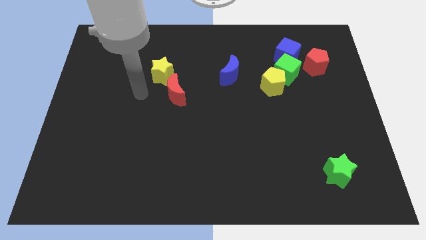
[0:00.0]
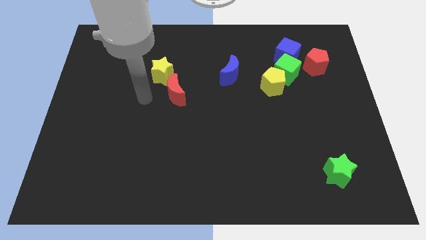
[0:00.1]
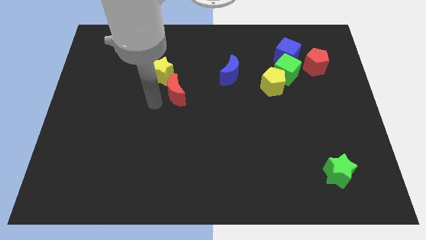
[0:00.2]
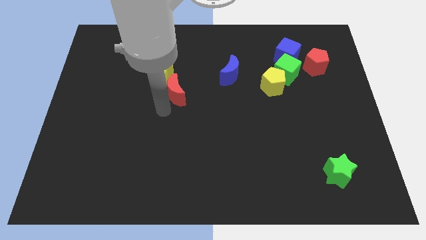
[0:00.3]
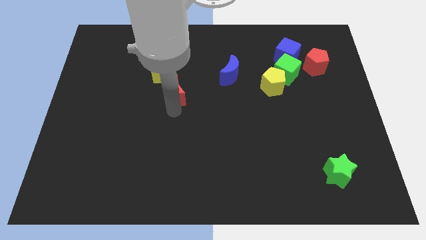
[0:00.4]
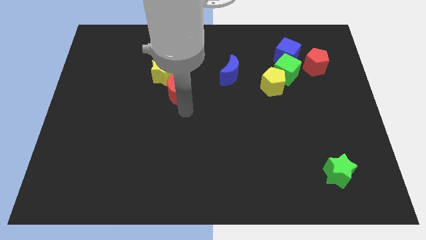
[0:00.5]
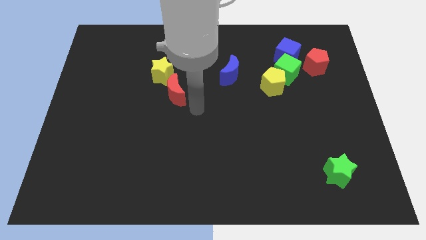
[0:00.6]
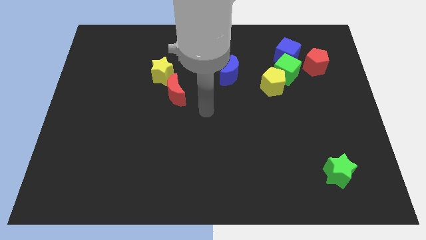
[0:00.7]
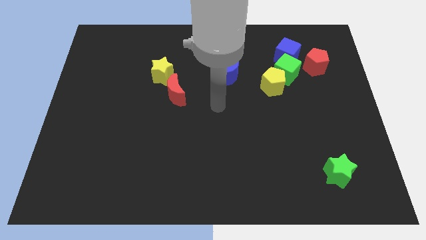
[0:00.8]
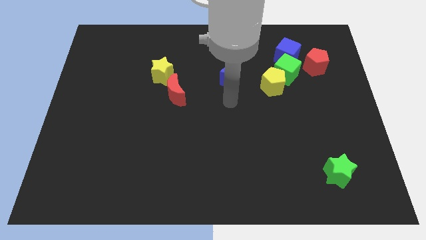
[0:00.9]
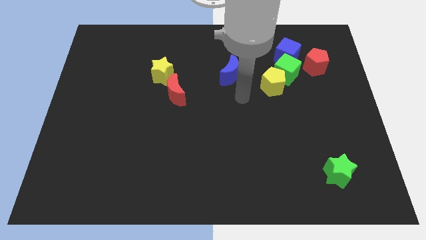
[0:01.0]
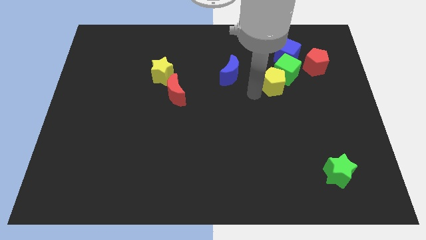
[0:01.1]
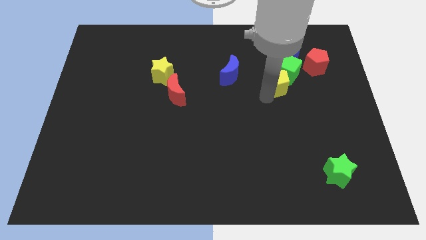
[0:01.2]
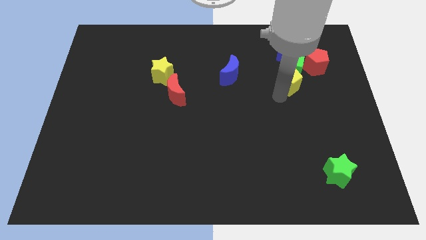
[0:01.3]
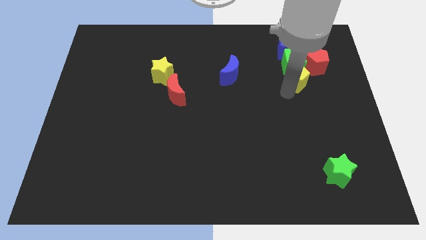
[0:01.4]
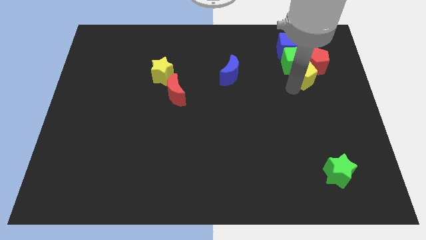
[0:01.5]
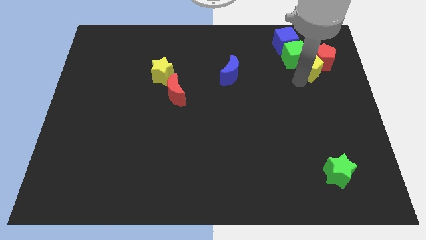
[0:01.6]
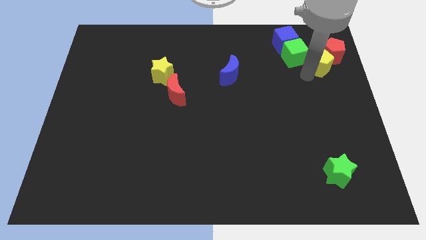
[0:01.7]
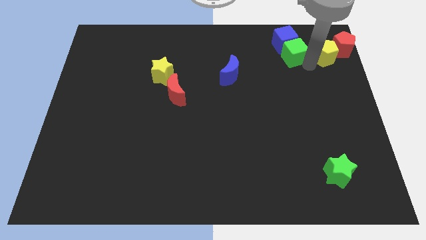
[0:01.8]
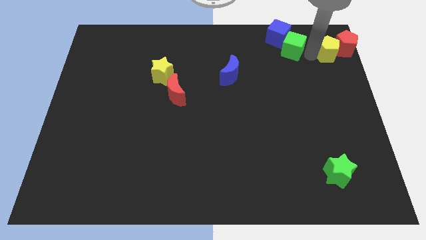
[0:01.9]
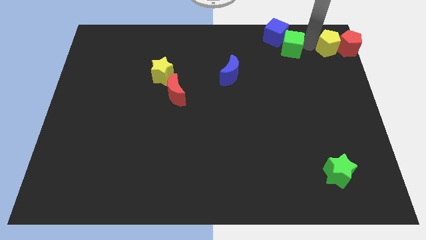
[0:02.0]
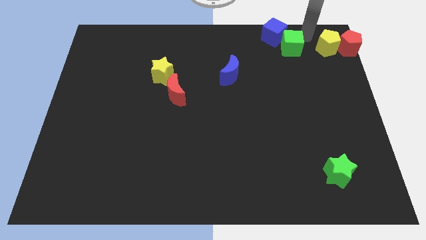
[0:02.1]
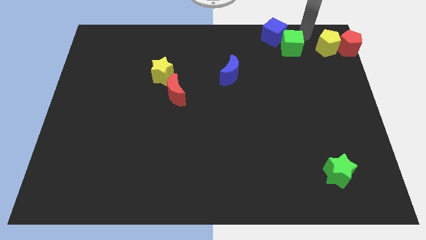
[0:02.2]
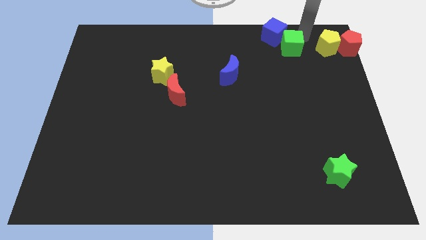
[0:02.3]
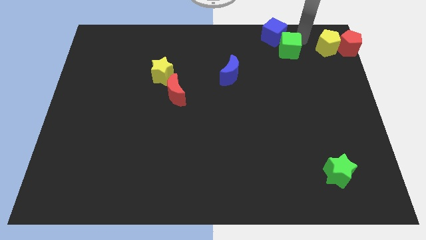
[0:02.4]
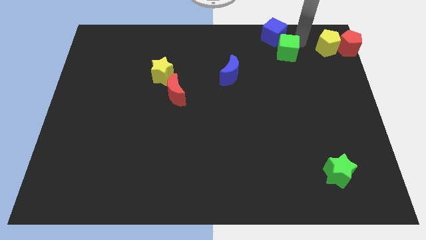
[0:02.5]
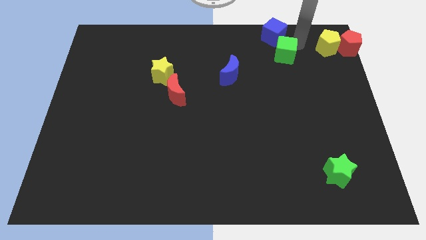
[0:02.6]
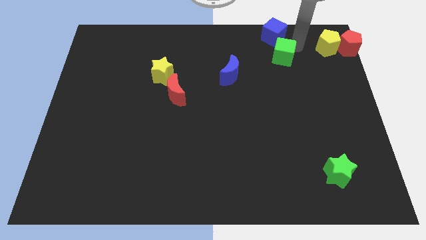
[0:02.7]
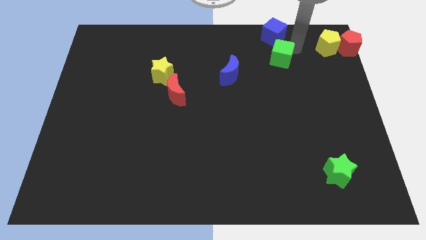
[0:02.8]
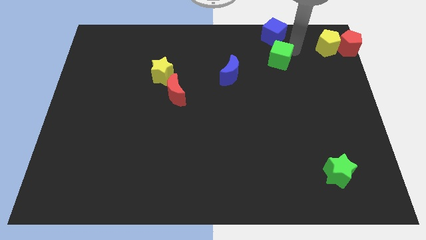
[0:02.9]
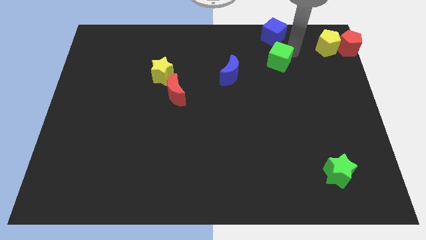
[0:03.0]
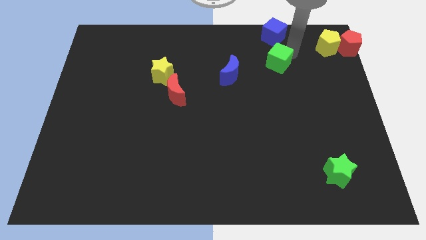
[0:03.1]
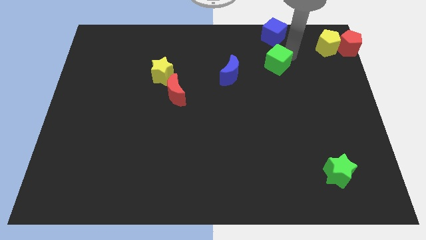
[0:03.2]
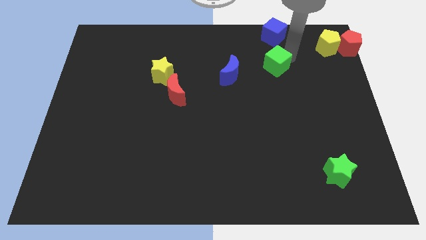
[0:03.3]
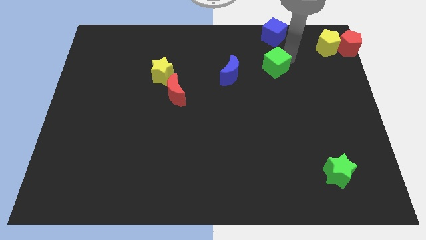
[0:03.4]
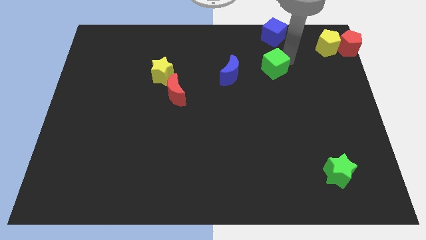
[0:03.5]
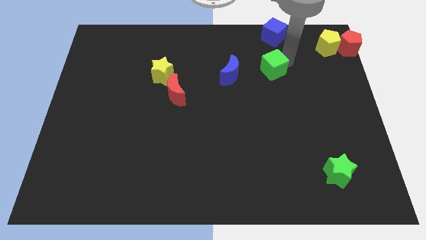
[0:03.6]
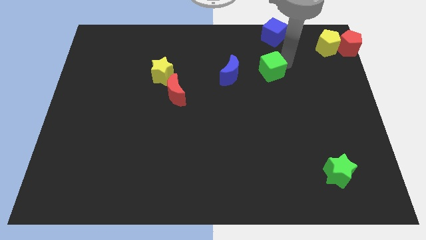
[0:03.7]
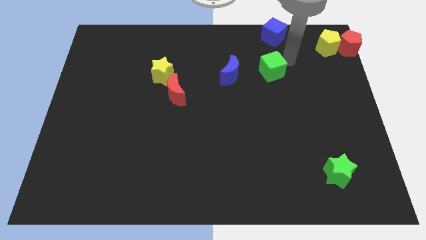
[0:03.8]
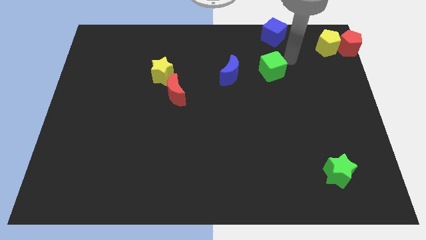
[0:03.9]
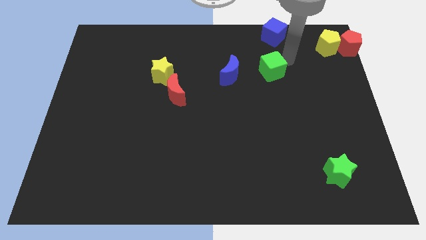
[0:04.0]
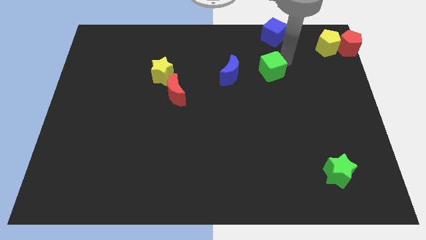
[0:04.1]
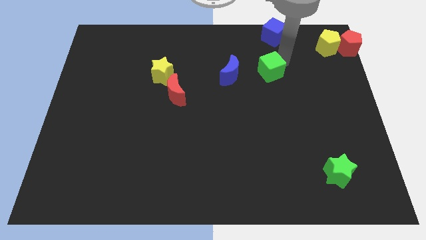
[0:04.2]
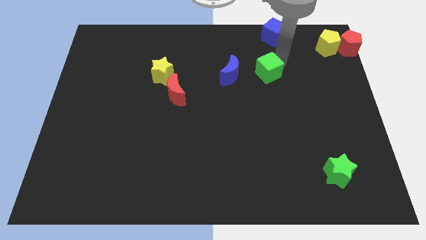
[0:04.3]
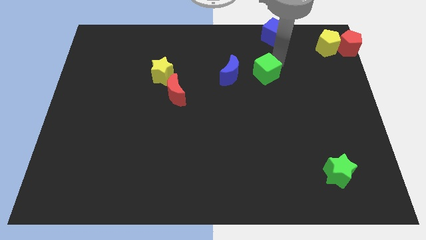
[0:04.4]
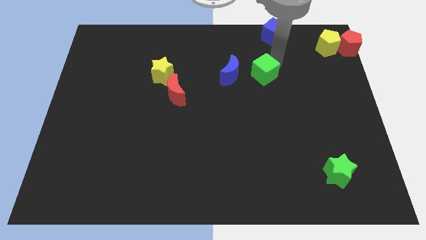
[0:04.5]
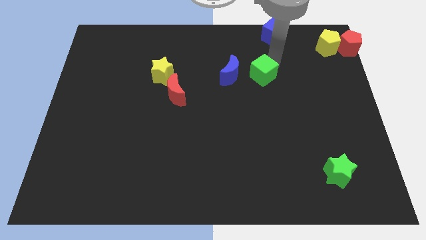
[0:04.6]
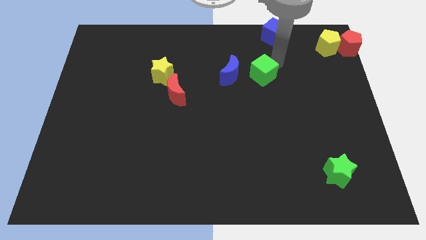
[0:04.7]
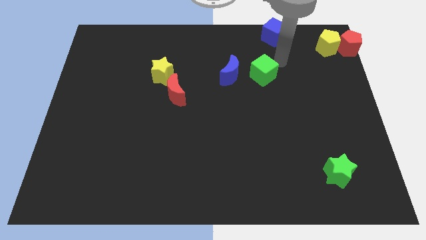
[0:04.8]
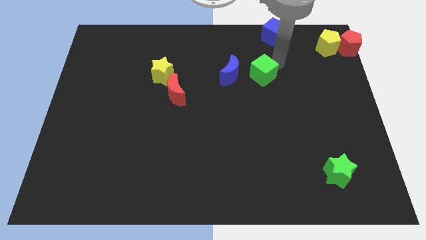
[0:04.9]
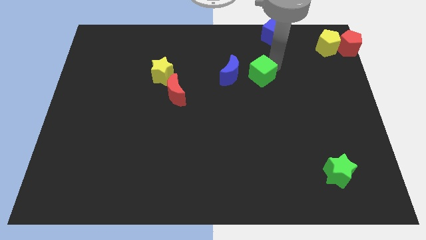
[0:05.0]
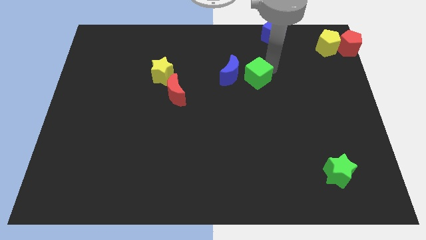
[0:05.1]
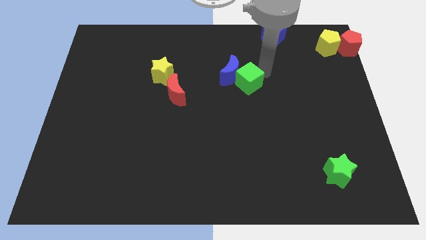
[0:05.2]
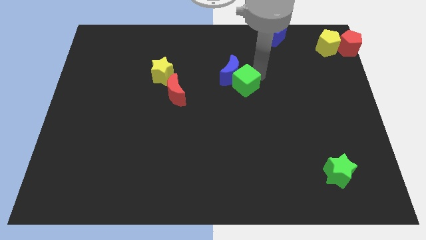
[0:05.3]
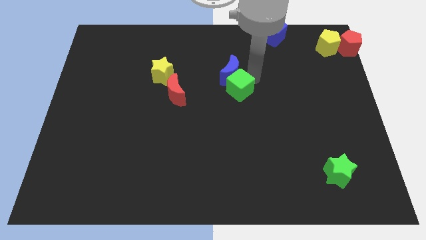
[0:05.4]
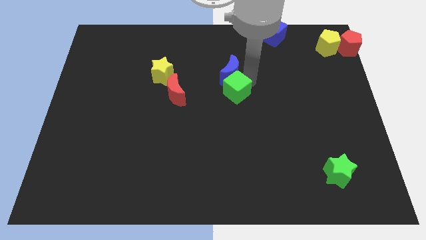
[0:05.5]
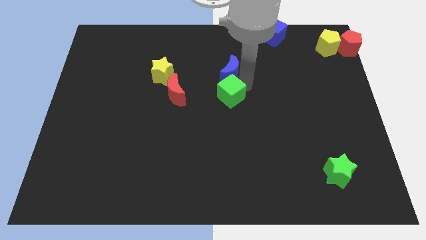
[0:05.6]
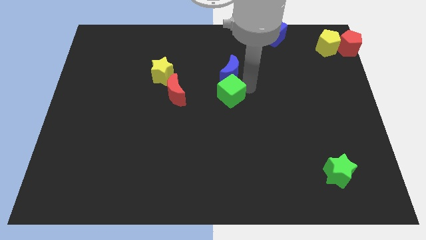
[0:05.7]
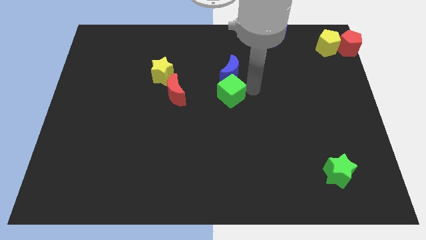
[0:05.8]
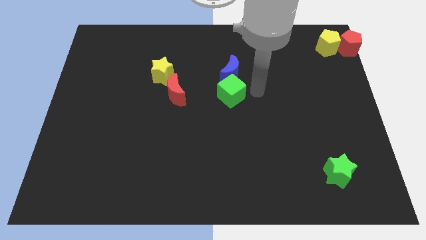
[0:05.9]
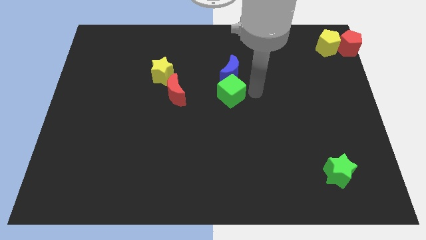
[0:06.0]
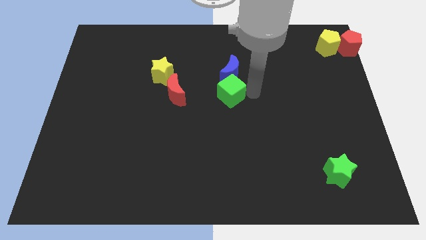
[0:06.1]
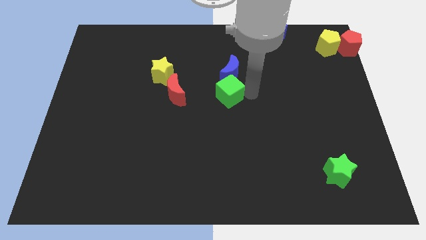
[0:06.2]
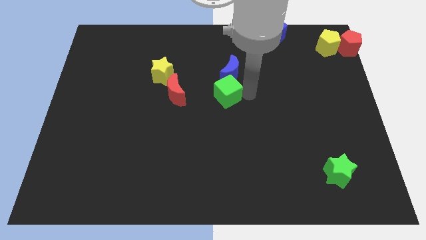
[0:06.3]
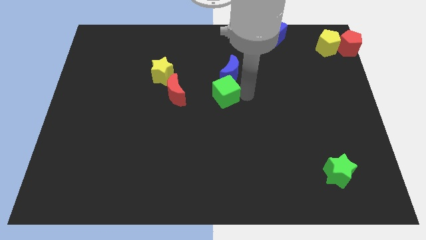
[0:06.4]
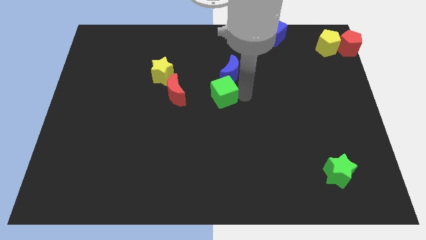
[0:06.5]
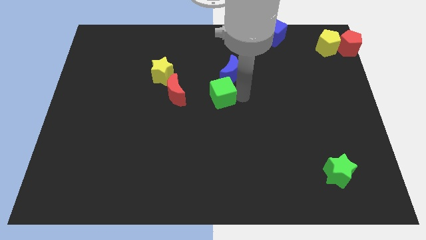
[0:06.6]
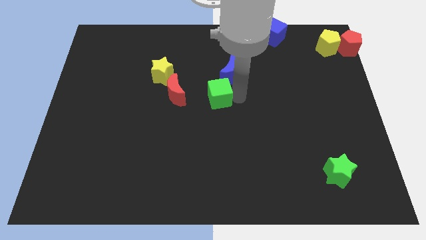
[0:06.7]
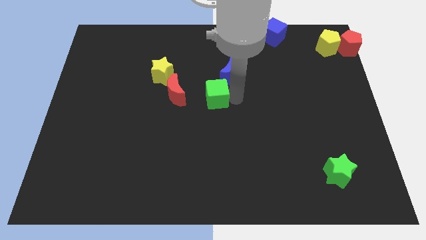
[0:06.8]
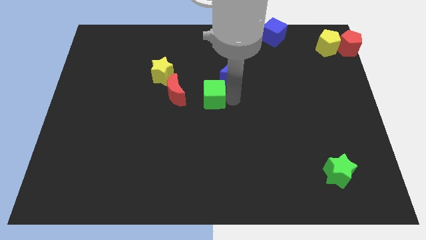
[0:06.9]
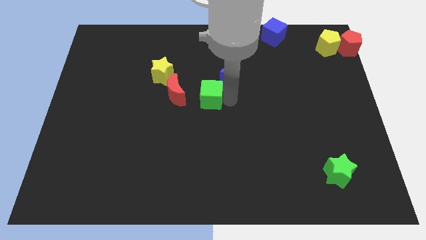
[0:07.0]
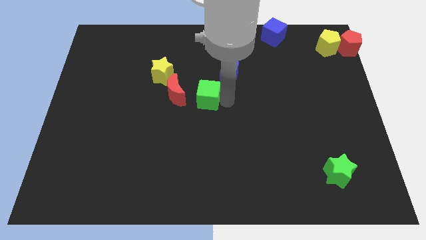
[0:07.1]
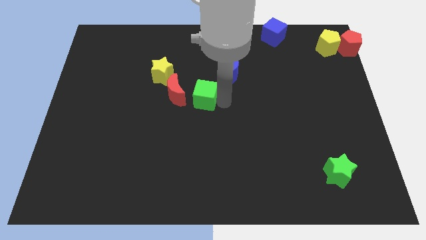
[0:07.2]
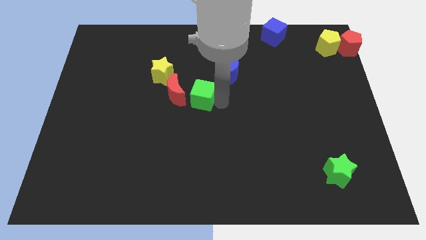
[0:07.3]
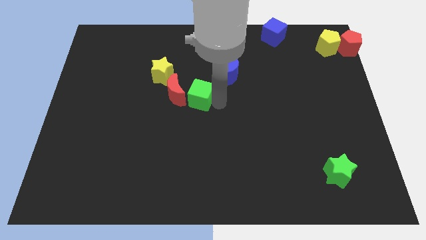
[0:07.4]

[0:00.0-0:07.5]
slide the green cube next to the red moon

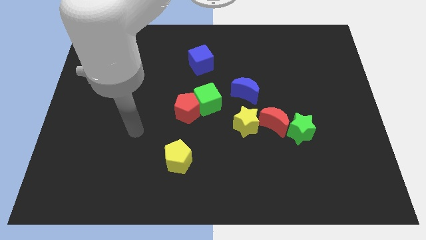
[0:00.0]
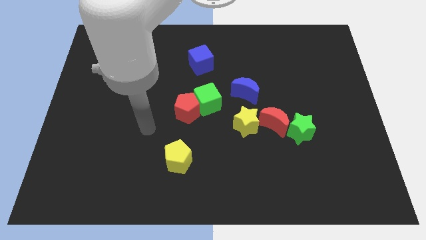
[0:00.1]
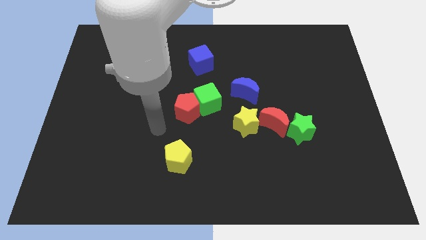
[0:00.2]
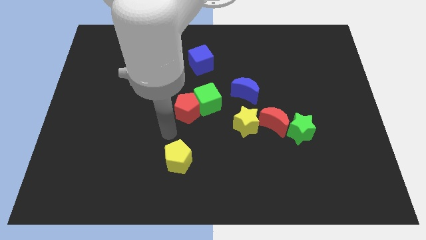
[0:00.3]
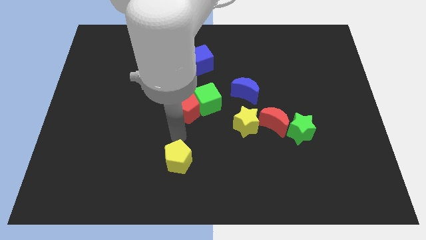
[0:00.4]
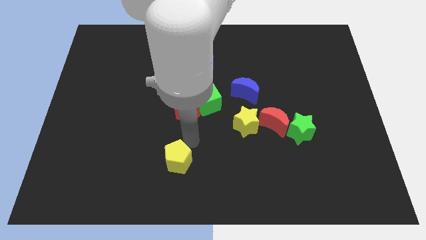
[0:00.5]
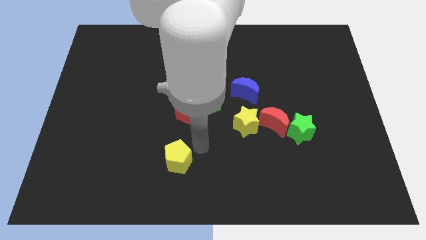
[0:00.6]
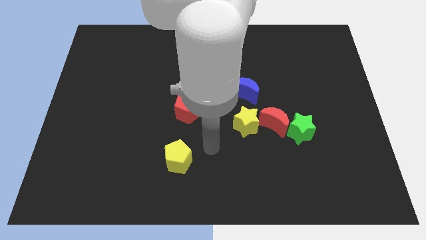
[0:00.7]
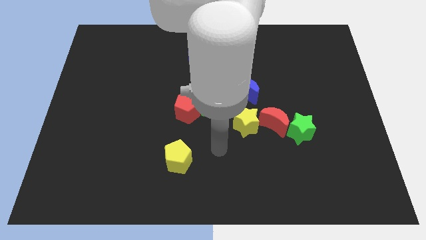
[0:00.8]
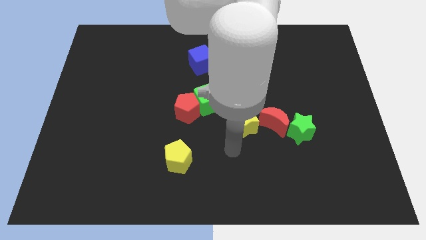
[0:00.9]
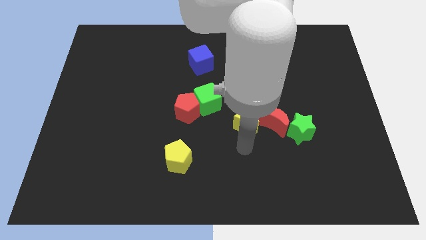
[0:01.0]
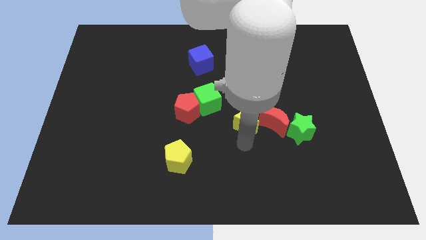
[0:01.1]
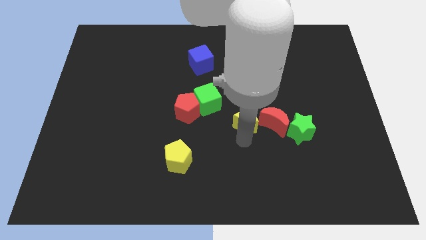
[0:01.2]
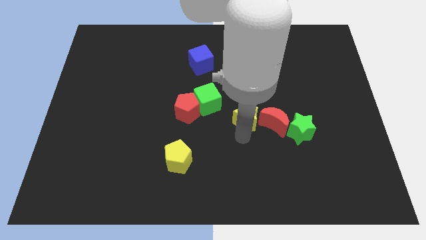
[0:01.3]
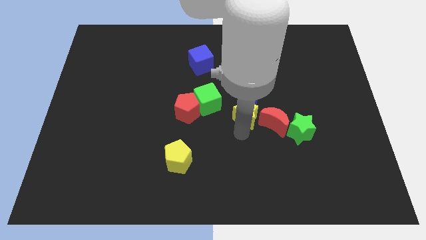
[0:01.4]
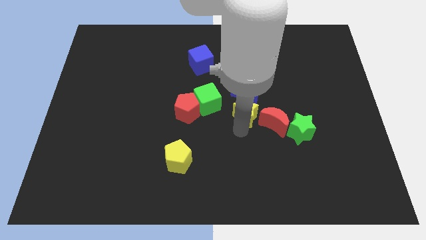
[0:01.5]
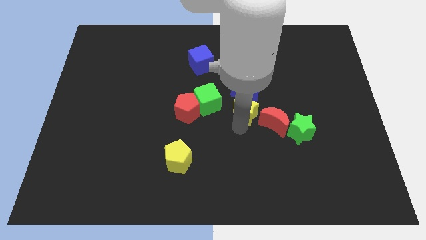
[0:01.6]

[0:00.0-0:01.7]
push the yellow star to the blue moon
